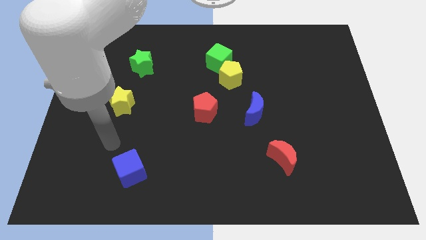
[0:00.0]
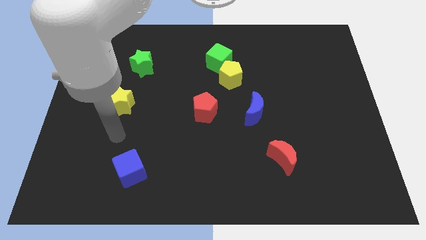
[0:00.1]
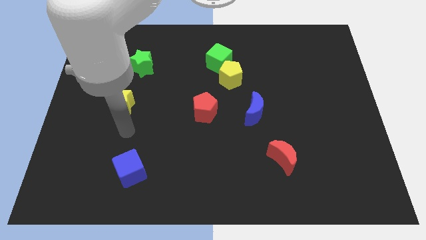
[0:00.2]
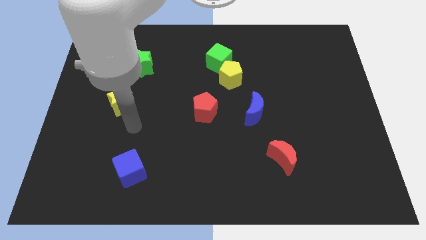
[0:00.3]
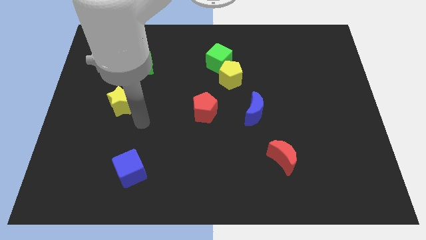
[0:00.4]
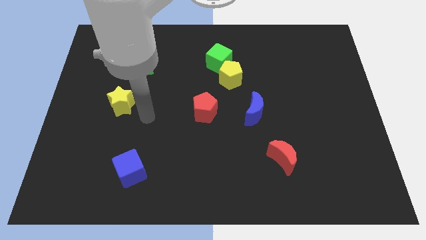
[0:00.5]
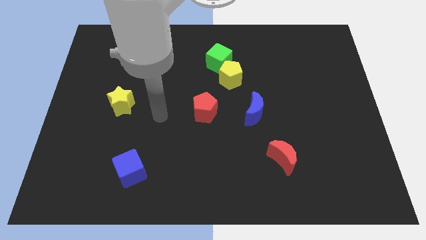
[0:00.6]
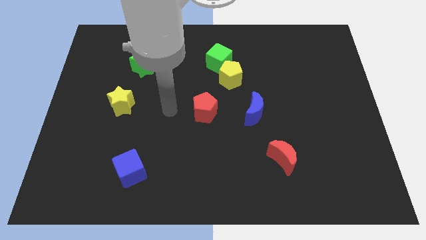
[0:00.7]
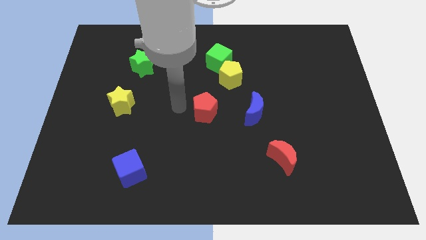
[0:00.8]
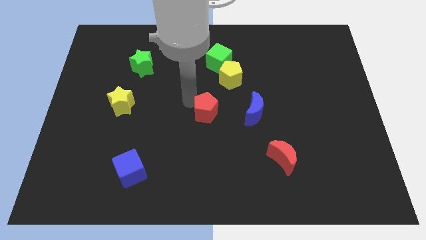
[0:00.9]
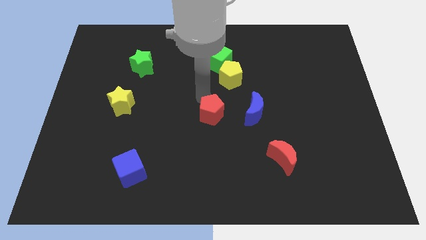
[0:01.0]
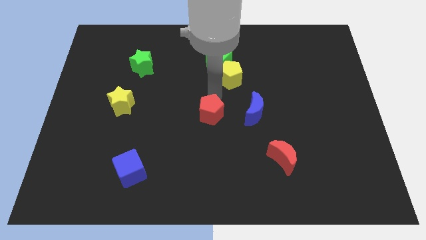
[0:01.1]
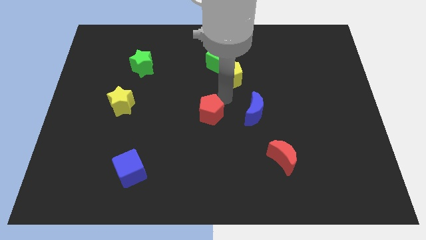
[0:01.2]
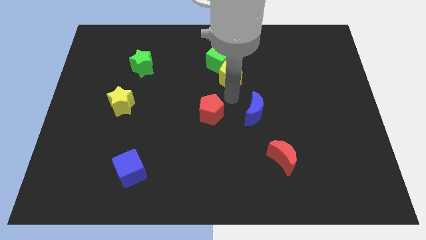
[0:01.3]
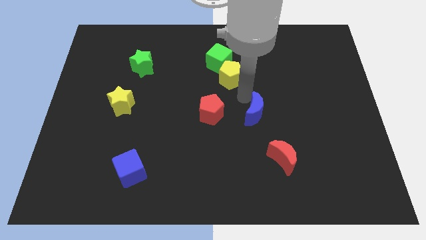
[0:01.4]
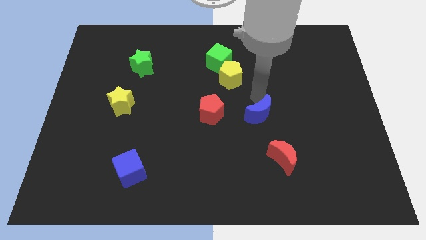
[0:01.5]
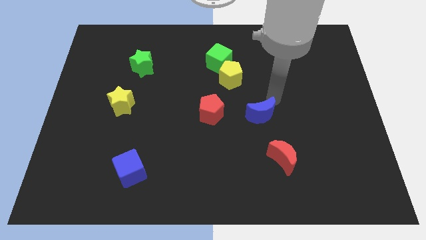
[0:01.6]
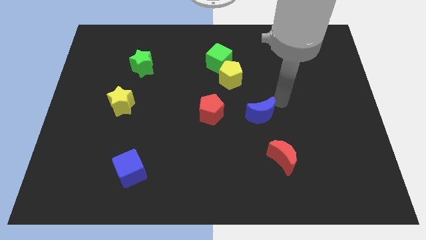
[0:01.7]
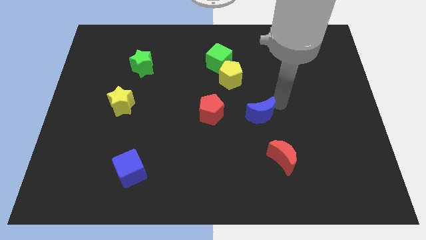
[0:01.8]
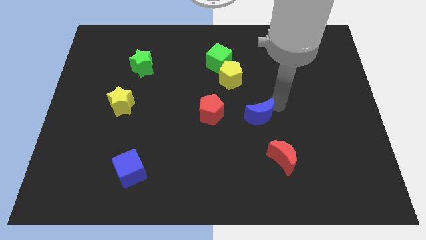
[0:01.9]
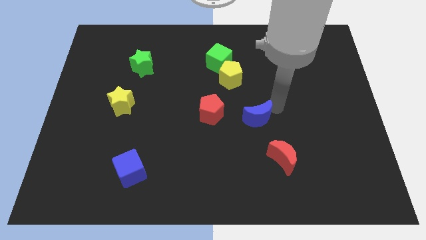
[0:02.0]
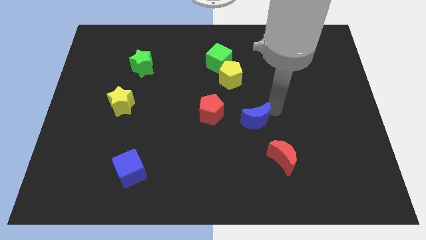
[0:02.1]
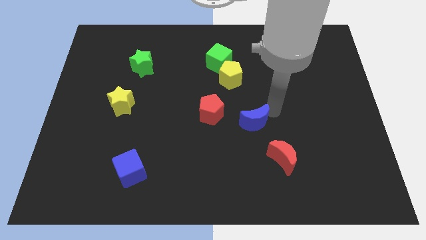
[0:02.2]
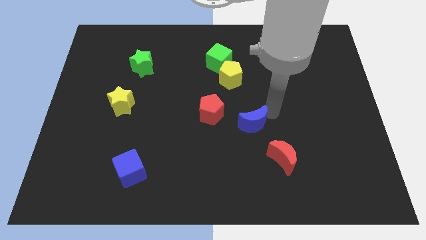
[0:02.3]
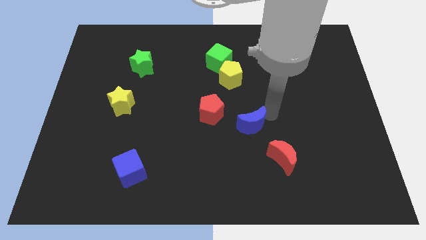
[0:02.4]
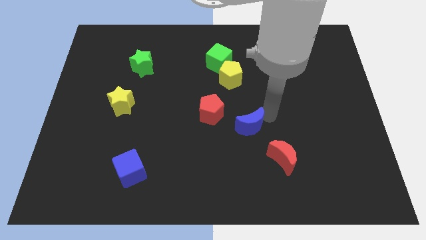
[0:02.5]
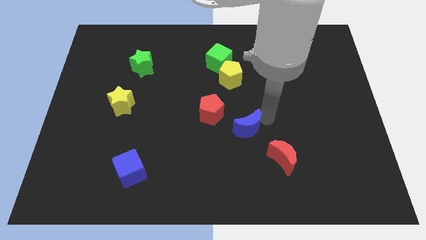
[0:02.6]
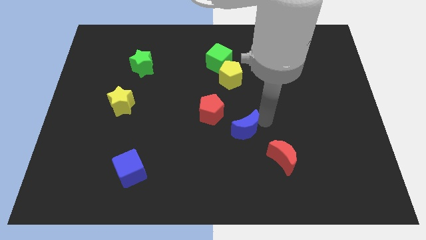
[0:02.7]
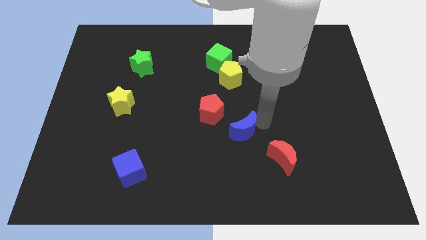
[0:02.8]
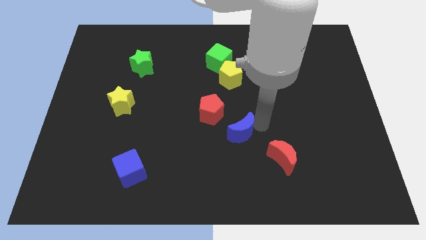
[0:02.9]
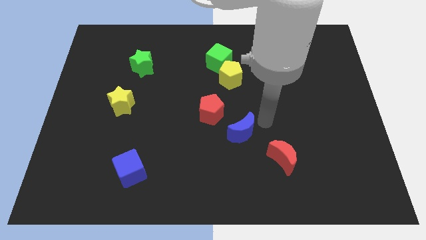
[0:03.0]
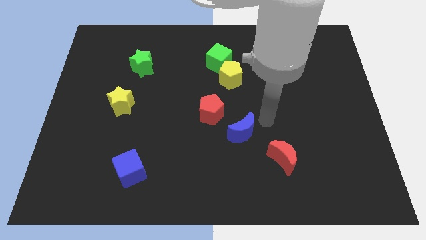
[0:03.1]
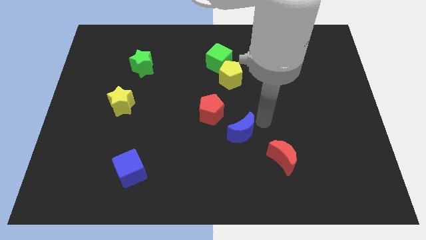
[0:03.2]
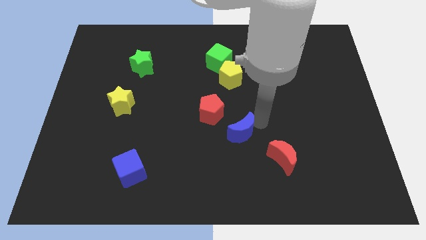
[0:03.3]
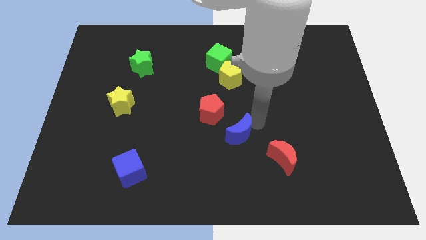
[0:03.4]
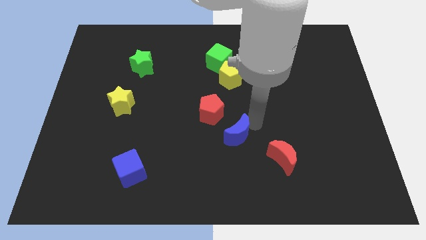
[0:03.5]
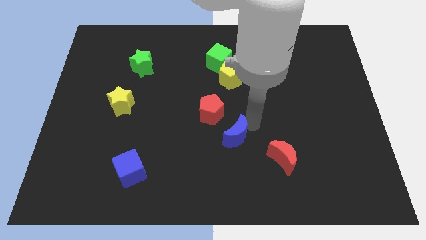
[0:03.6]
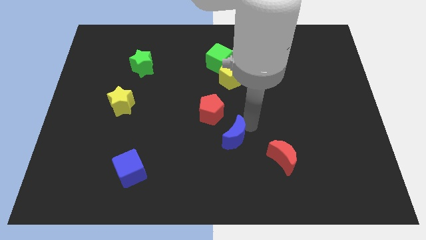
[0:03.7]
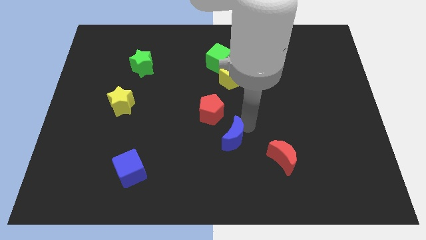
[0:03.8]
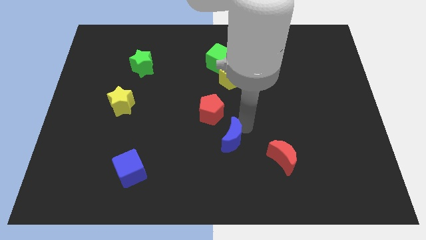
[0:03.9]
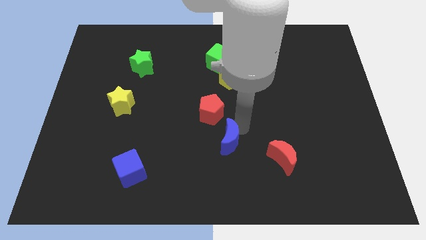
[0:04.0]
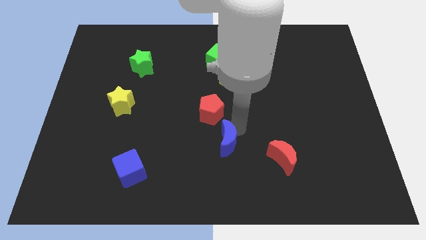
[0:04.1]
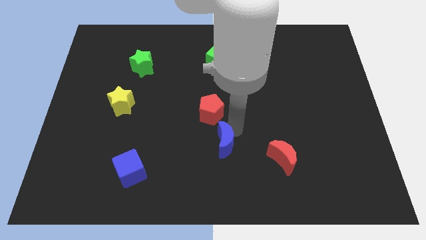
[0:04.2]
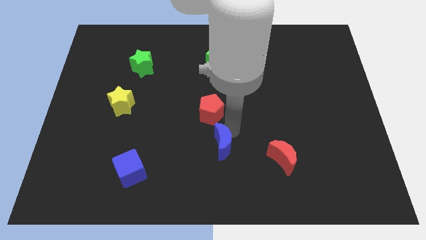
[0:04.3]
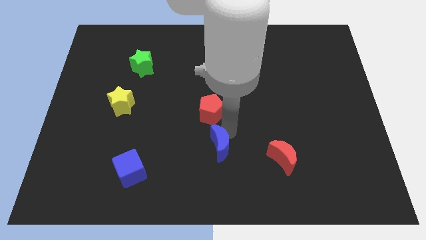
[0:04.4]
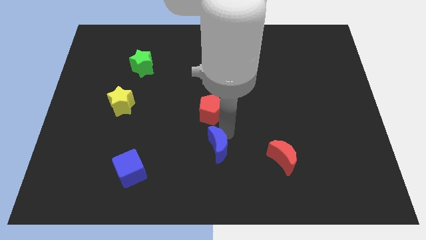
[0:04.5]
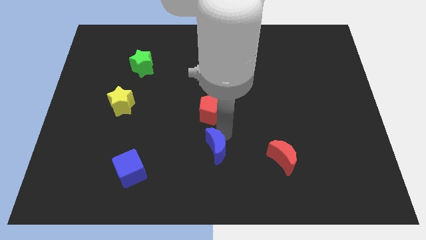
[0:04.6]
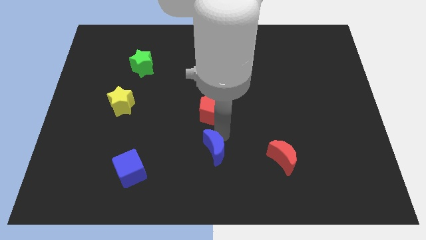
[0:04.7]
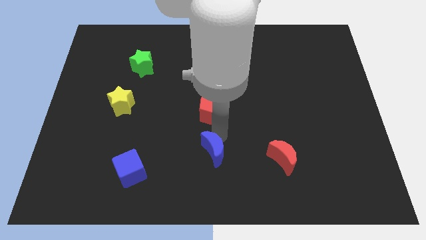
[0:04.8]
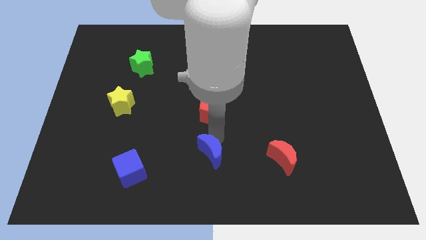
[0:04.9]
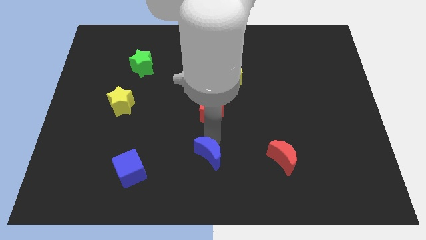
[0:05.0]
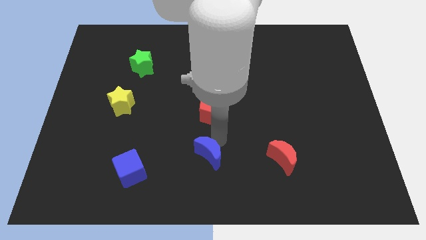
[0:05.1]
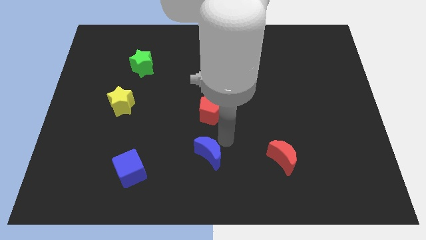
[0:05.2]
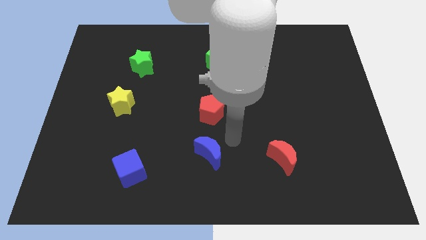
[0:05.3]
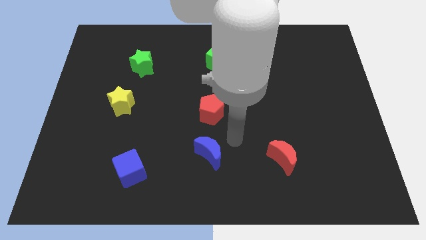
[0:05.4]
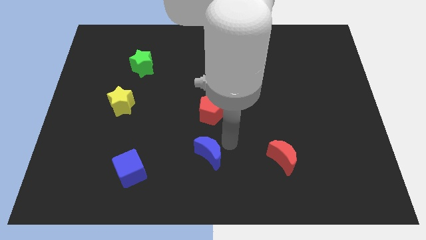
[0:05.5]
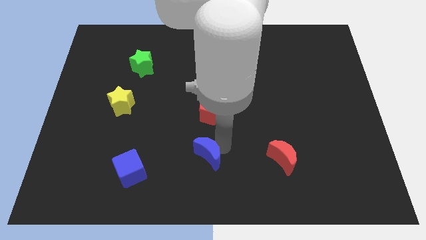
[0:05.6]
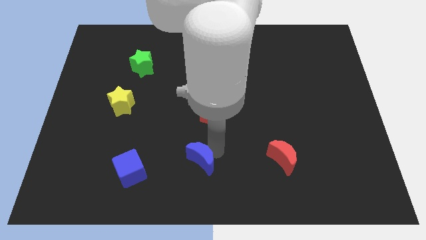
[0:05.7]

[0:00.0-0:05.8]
push the blue moon right of the blue cube

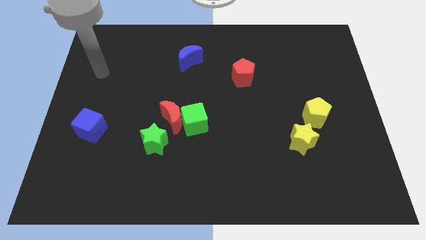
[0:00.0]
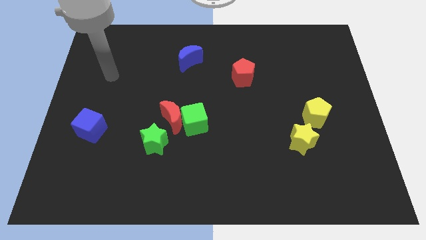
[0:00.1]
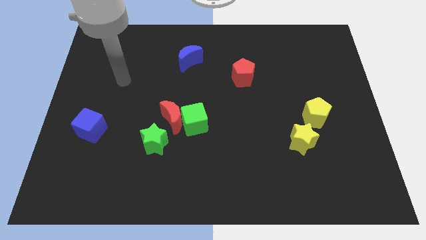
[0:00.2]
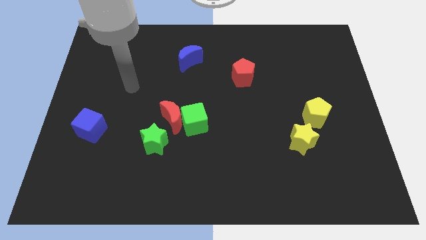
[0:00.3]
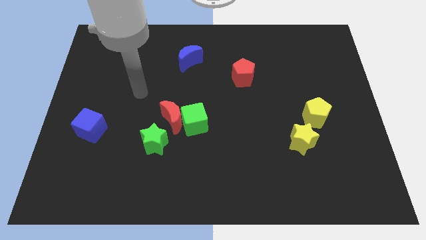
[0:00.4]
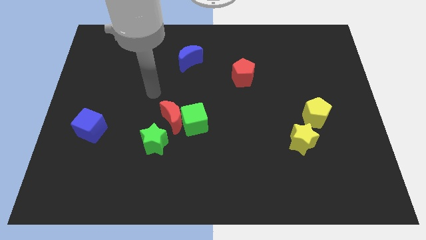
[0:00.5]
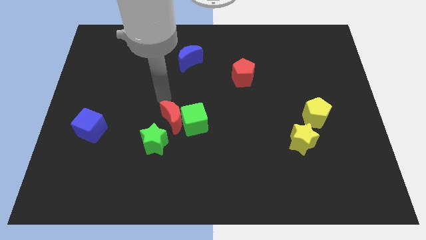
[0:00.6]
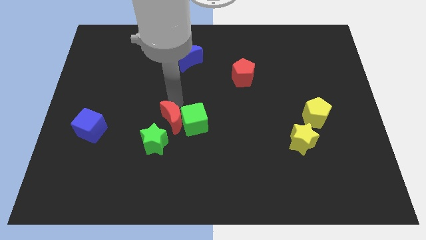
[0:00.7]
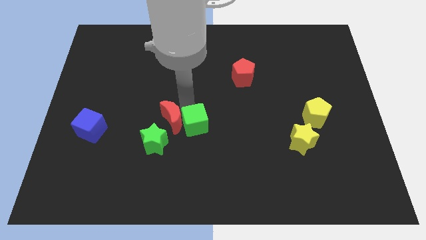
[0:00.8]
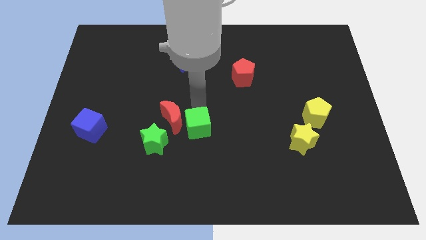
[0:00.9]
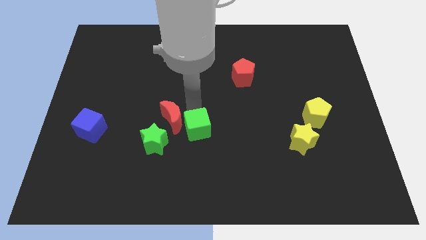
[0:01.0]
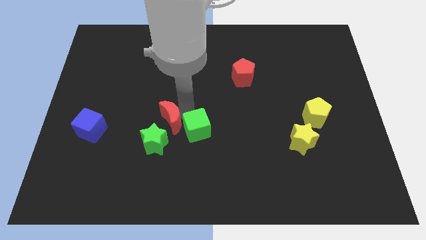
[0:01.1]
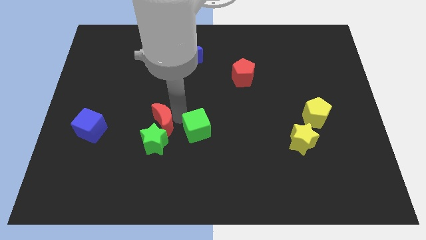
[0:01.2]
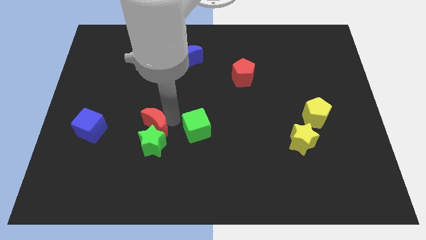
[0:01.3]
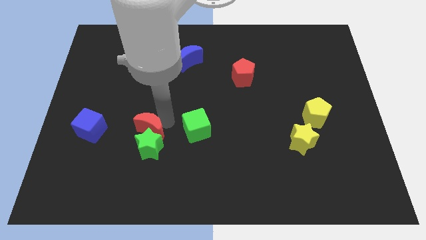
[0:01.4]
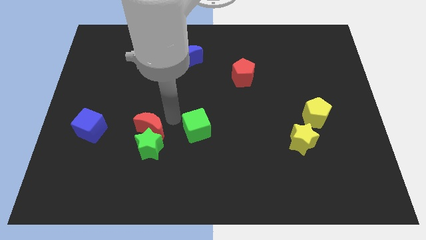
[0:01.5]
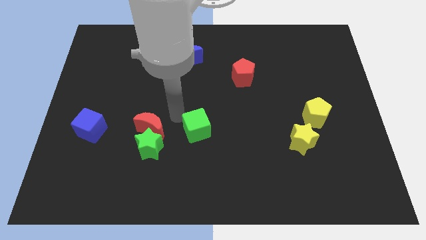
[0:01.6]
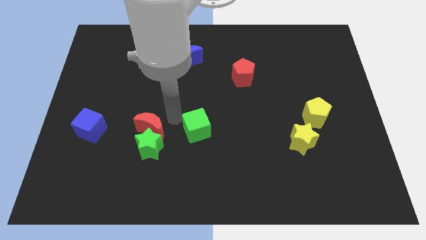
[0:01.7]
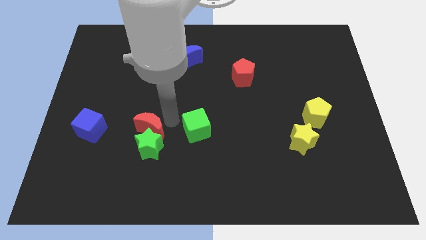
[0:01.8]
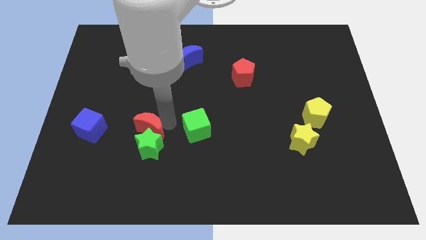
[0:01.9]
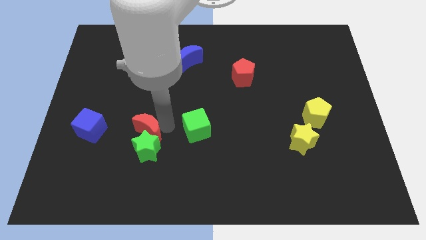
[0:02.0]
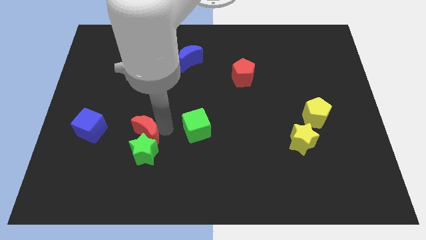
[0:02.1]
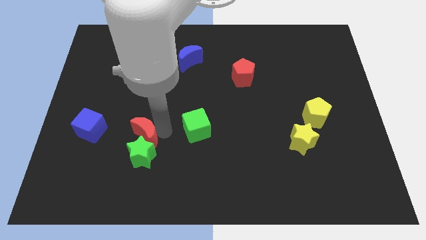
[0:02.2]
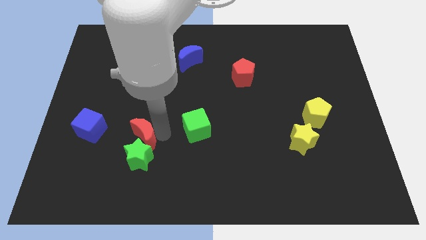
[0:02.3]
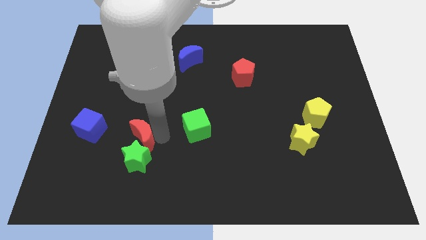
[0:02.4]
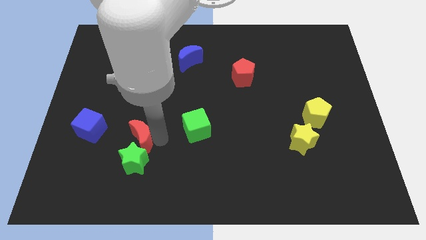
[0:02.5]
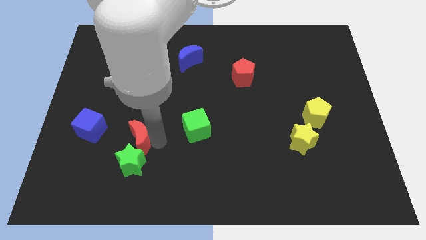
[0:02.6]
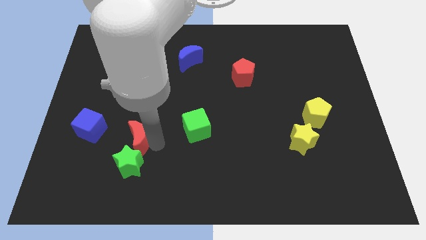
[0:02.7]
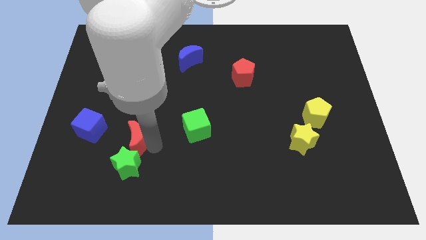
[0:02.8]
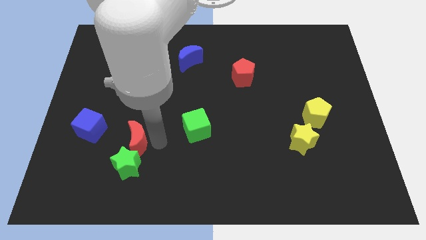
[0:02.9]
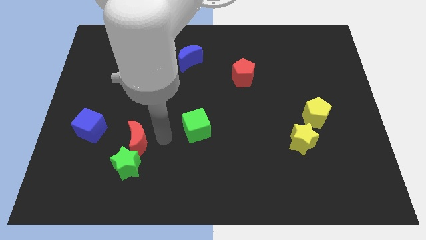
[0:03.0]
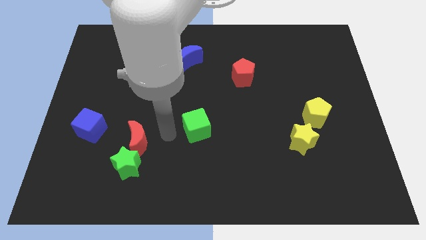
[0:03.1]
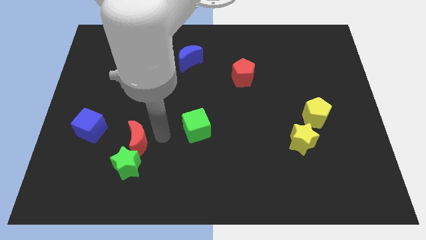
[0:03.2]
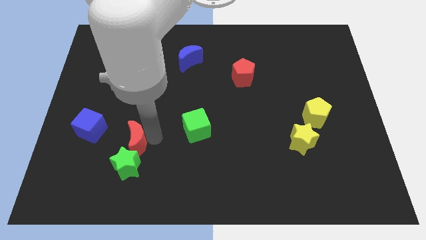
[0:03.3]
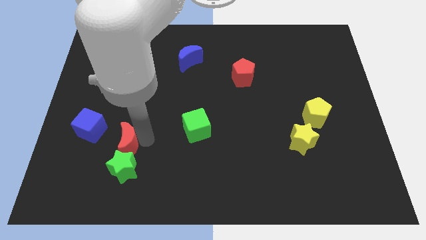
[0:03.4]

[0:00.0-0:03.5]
slide the red moon to the bottom right of the blue cube
